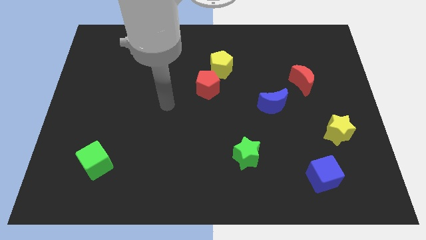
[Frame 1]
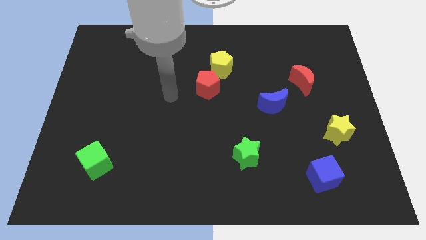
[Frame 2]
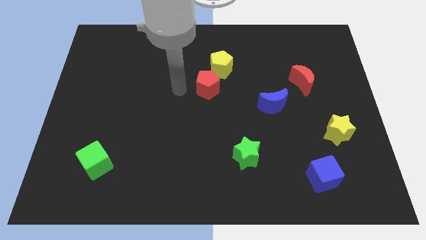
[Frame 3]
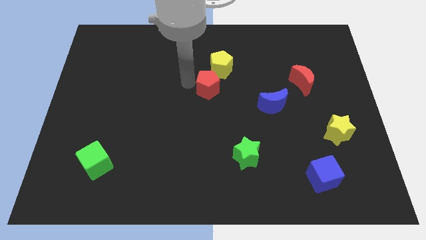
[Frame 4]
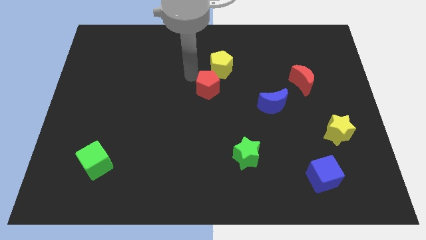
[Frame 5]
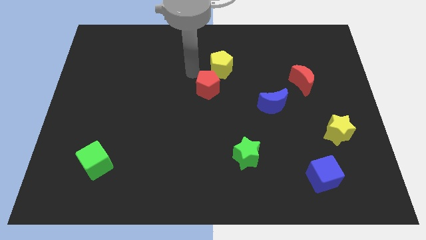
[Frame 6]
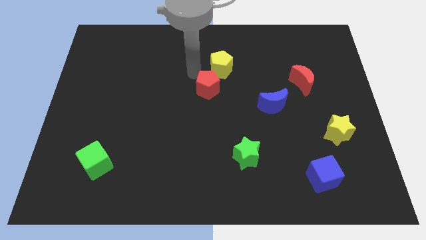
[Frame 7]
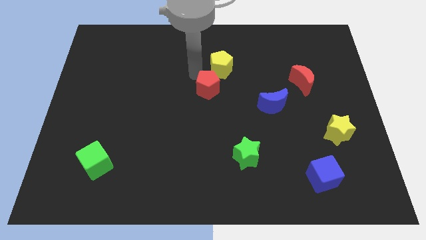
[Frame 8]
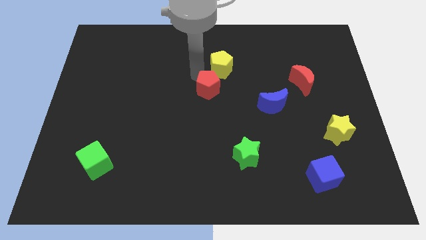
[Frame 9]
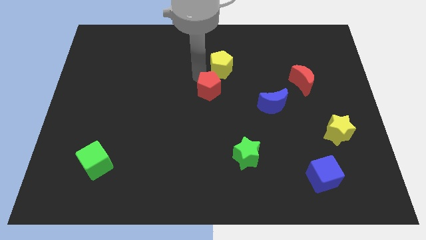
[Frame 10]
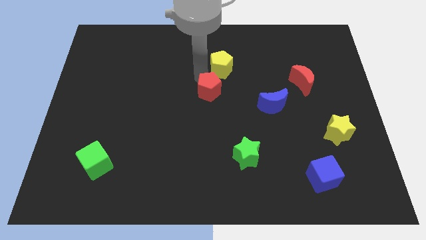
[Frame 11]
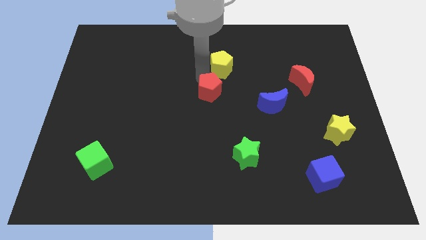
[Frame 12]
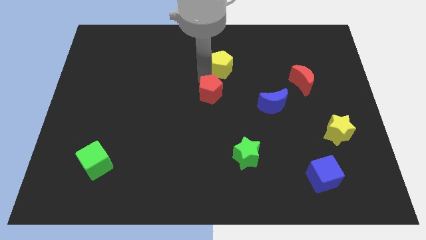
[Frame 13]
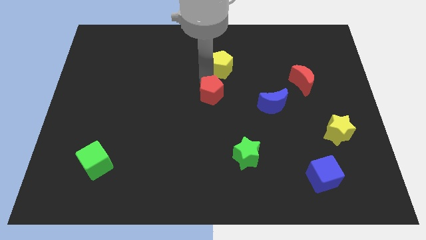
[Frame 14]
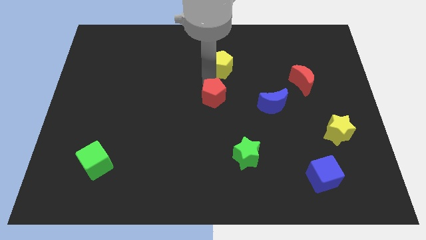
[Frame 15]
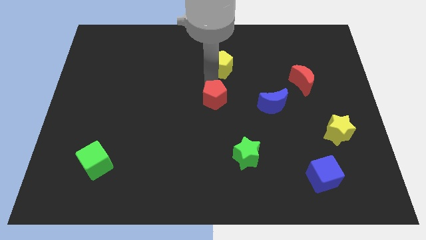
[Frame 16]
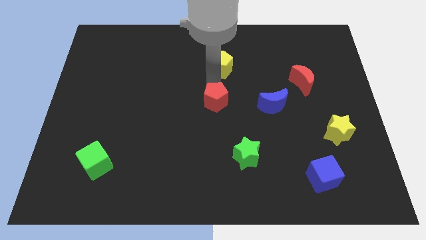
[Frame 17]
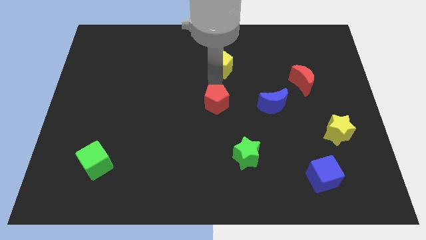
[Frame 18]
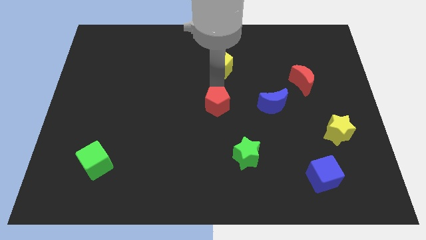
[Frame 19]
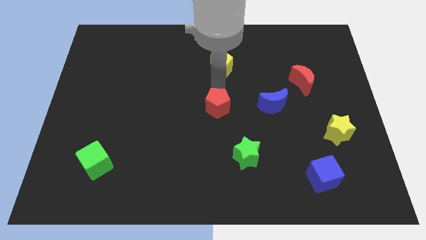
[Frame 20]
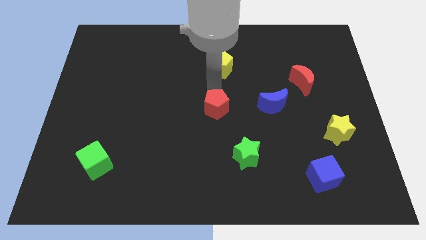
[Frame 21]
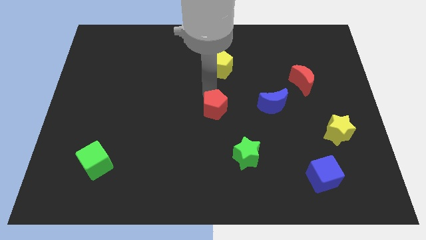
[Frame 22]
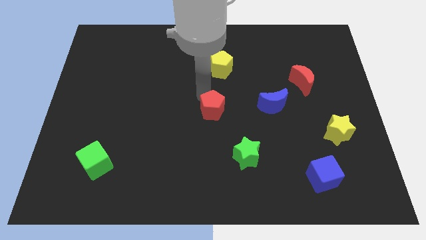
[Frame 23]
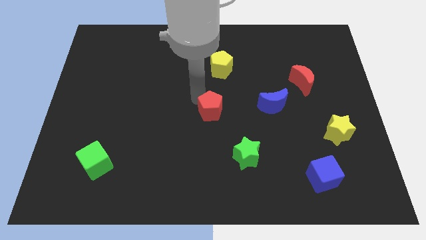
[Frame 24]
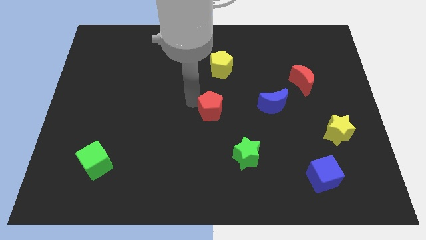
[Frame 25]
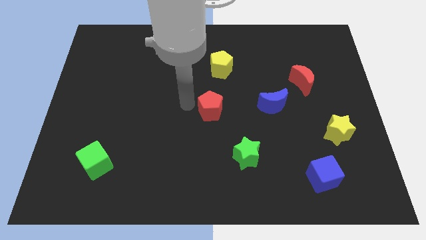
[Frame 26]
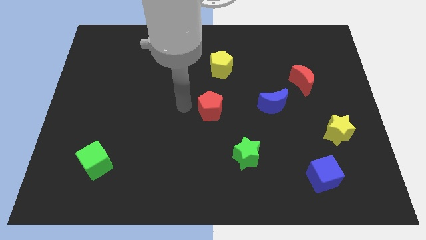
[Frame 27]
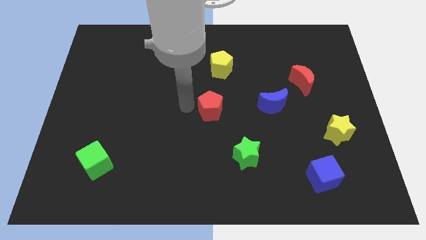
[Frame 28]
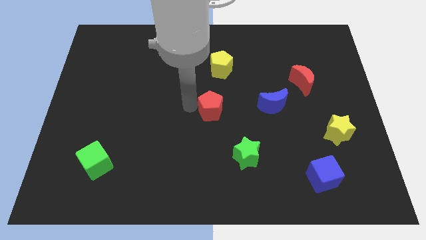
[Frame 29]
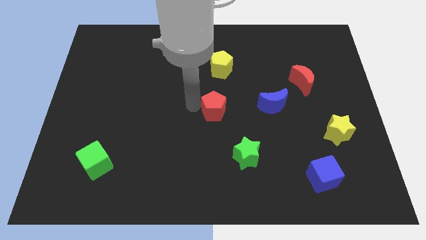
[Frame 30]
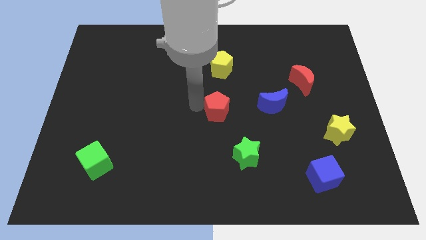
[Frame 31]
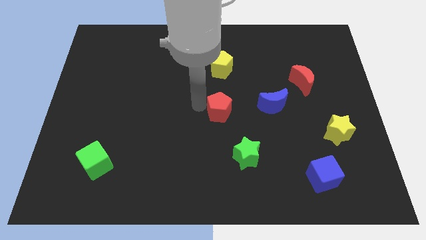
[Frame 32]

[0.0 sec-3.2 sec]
slightly push the red pentagon downwards and to the right

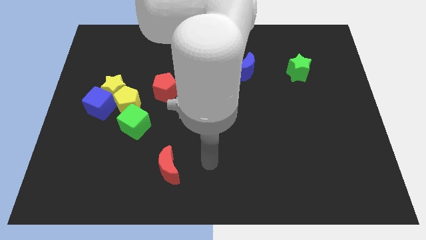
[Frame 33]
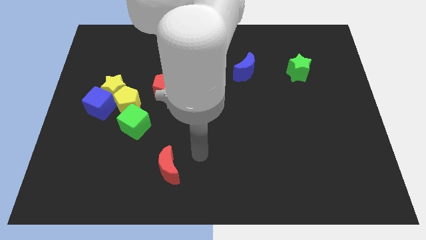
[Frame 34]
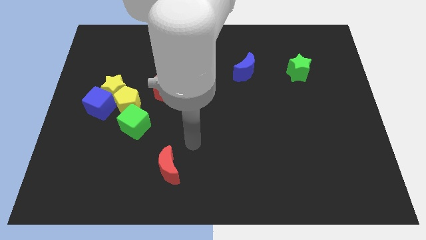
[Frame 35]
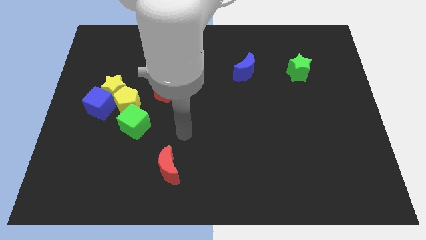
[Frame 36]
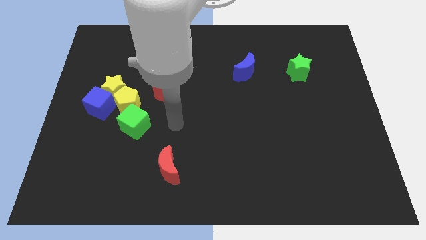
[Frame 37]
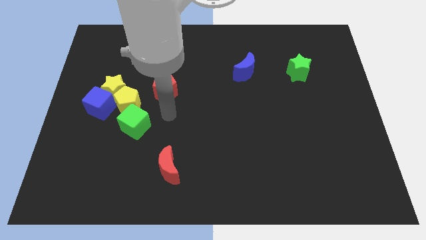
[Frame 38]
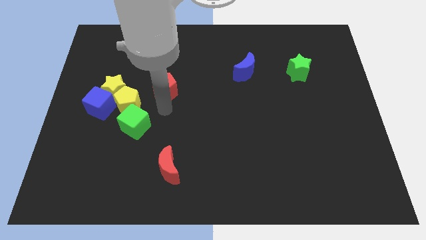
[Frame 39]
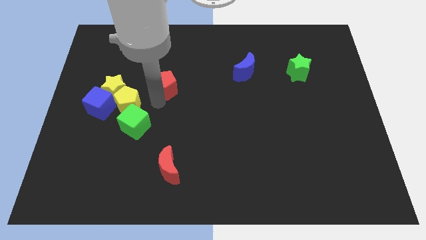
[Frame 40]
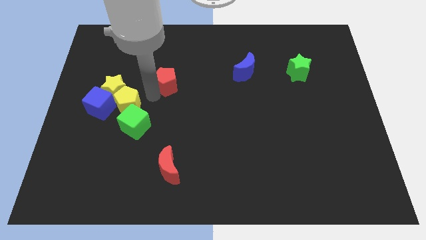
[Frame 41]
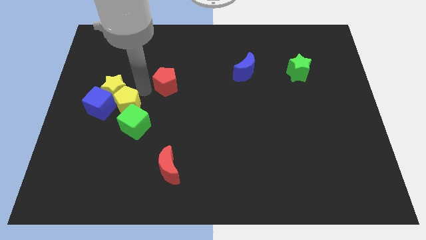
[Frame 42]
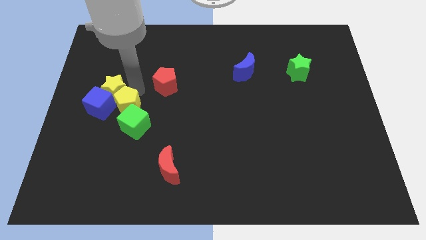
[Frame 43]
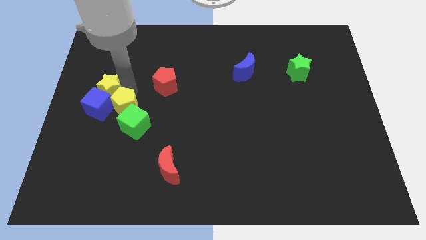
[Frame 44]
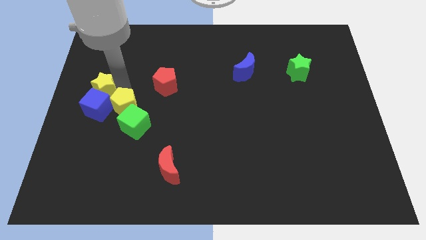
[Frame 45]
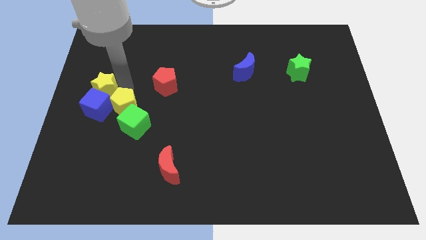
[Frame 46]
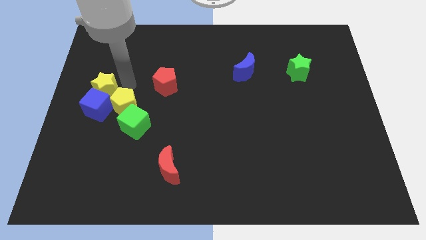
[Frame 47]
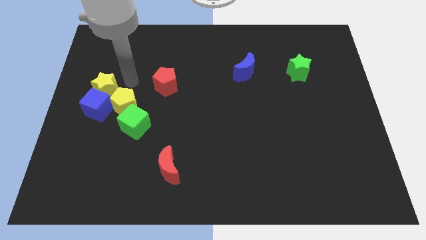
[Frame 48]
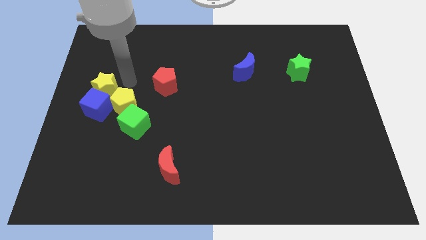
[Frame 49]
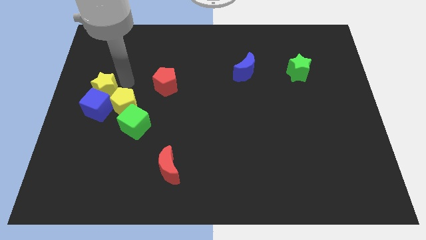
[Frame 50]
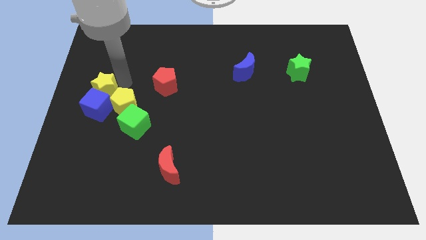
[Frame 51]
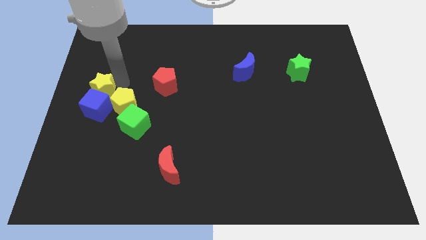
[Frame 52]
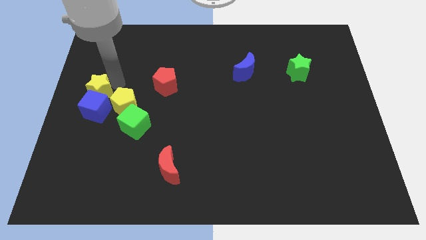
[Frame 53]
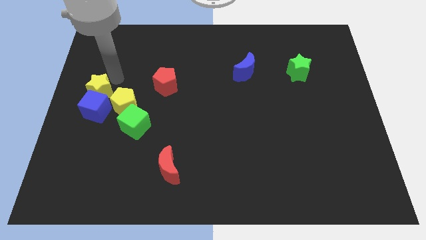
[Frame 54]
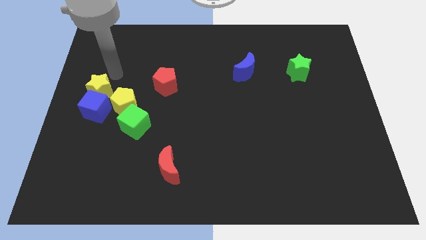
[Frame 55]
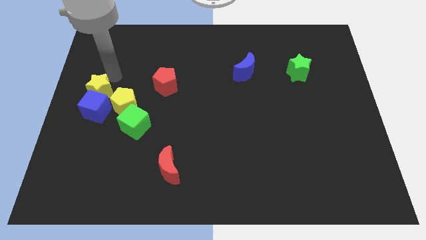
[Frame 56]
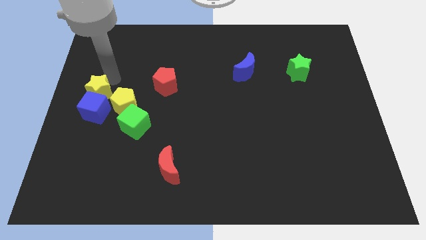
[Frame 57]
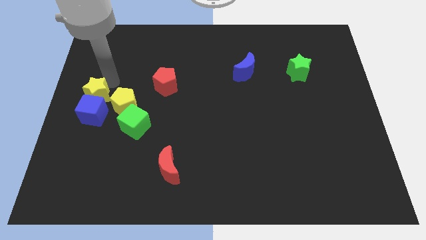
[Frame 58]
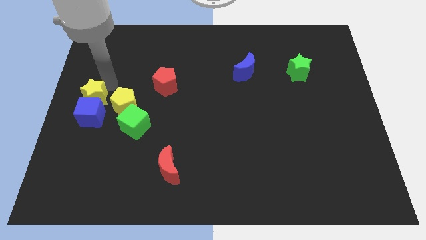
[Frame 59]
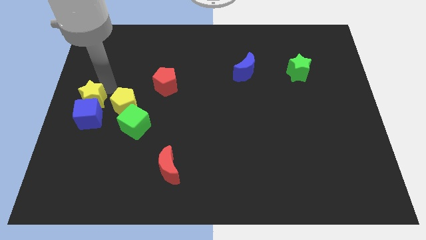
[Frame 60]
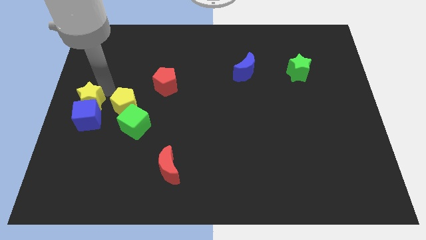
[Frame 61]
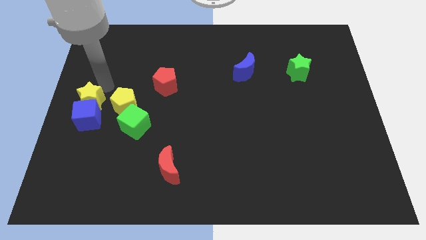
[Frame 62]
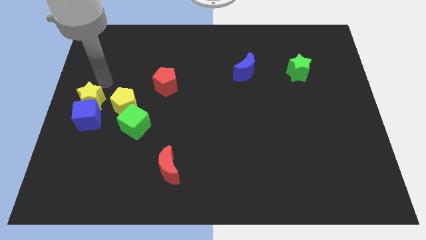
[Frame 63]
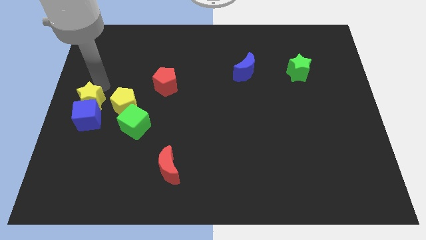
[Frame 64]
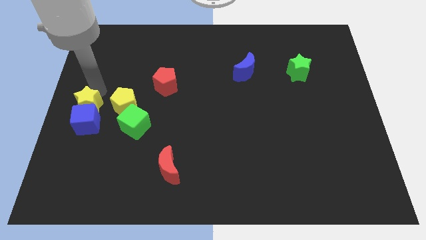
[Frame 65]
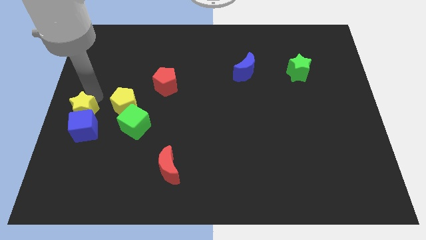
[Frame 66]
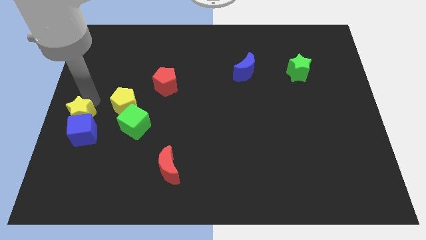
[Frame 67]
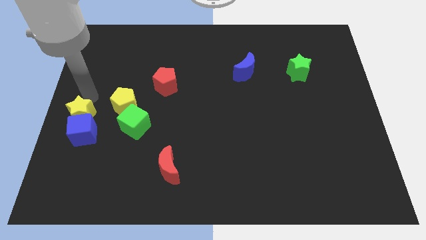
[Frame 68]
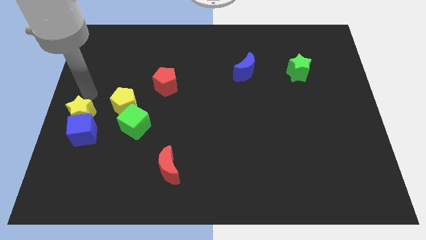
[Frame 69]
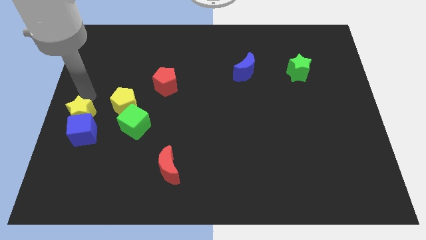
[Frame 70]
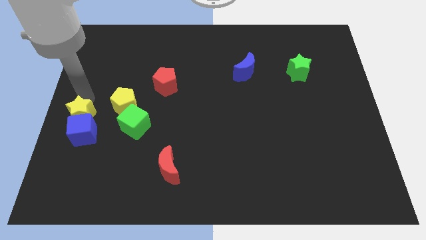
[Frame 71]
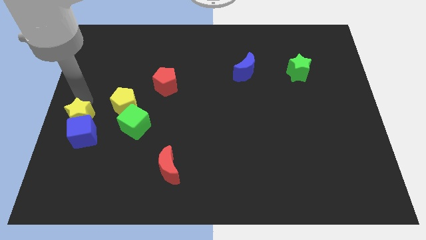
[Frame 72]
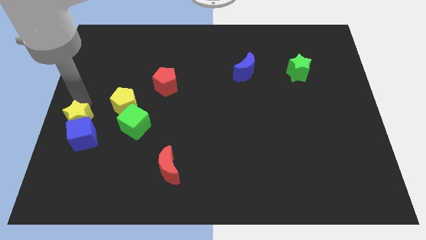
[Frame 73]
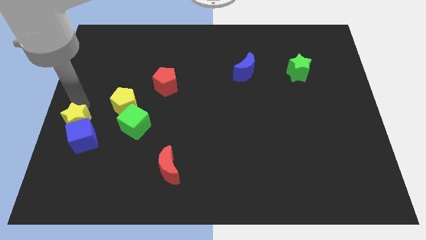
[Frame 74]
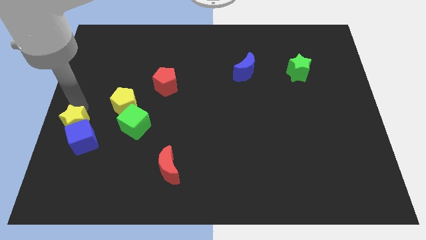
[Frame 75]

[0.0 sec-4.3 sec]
slide the yellow star a bit downwards

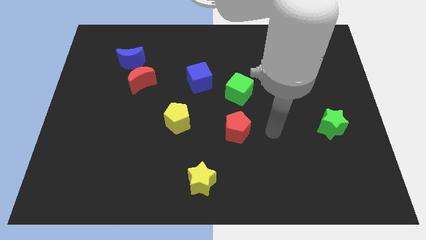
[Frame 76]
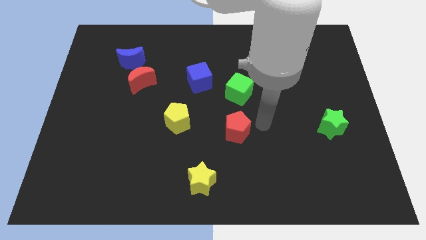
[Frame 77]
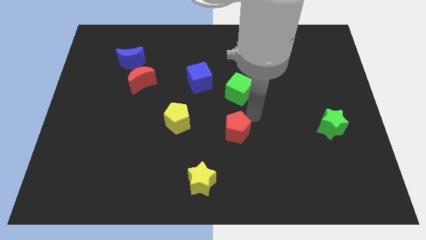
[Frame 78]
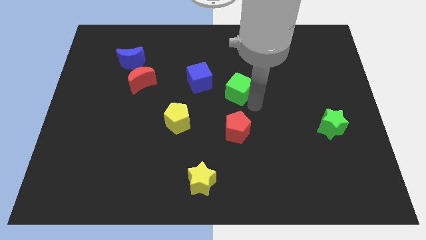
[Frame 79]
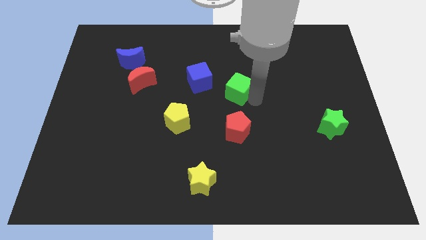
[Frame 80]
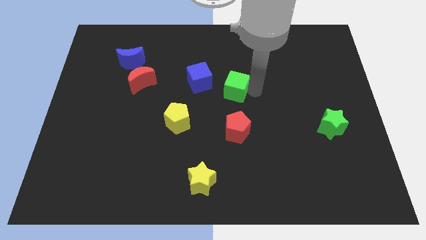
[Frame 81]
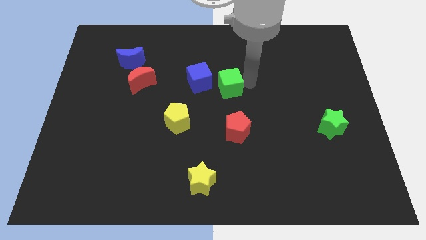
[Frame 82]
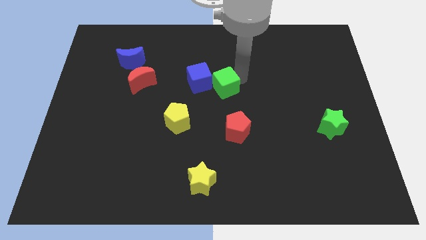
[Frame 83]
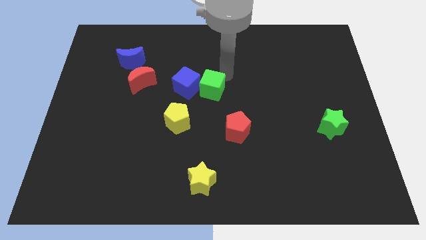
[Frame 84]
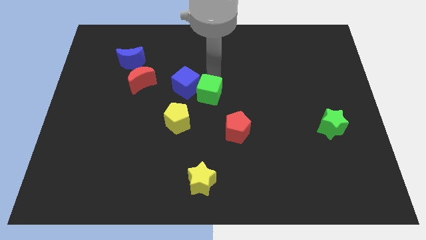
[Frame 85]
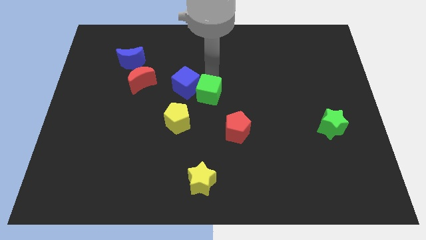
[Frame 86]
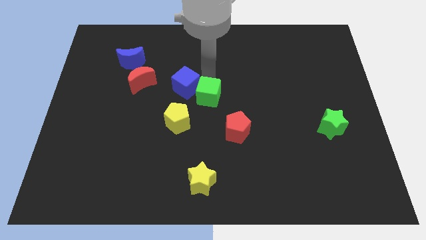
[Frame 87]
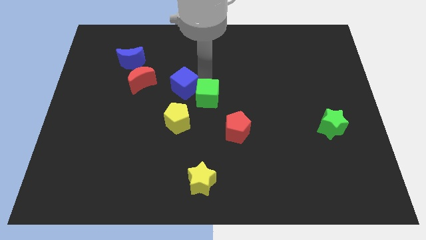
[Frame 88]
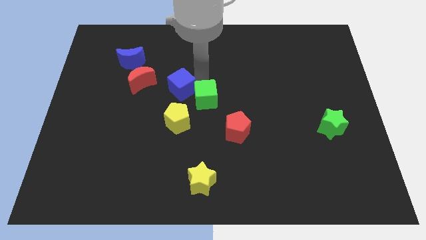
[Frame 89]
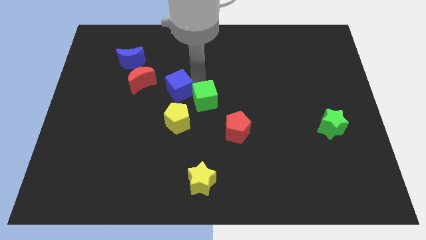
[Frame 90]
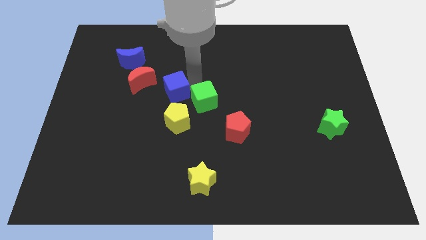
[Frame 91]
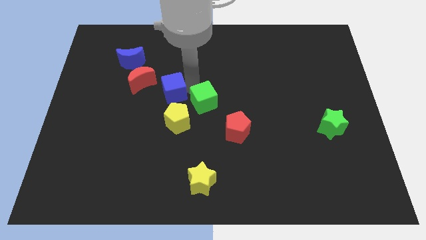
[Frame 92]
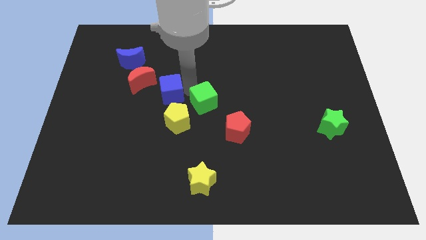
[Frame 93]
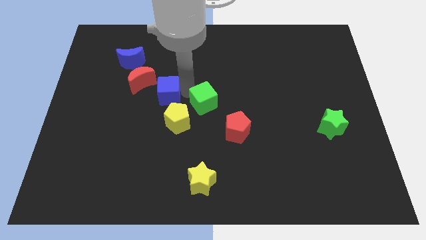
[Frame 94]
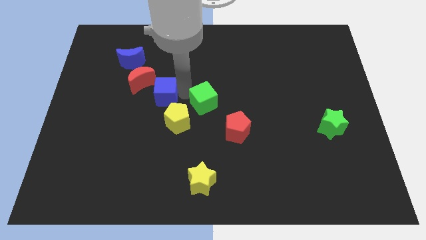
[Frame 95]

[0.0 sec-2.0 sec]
push the blue cube a little bit to the left
